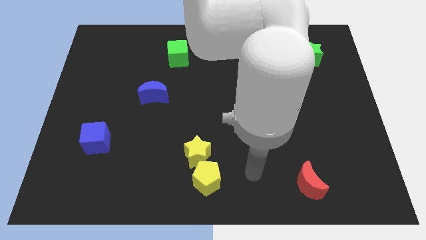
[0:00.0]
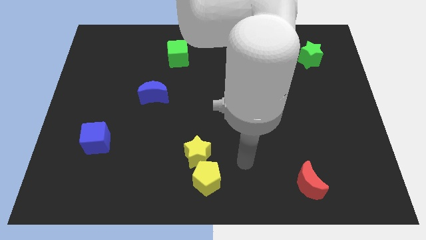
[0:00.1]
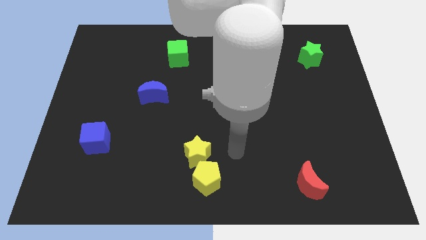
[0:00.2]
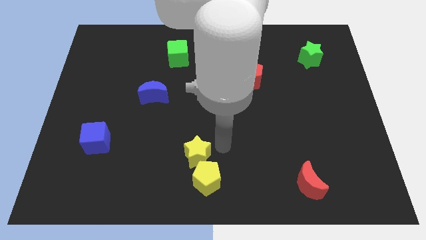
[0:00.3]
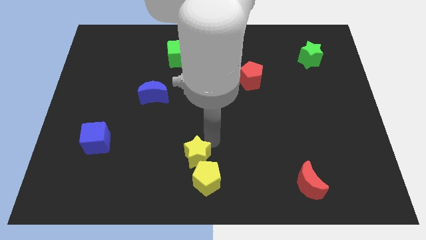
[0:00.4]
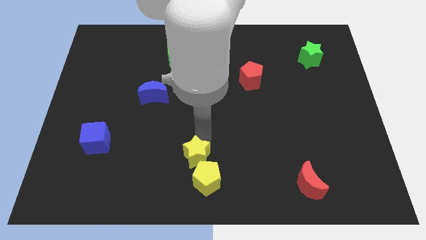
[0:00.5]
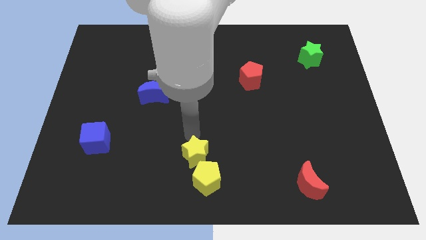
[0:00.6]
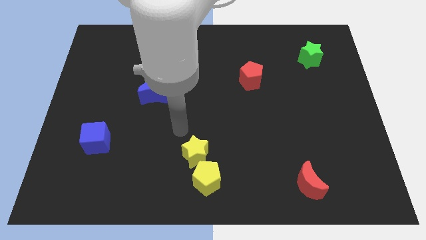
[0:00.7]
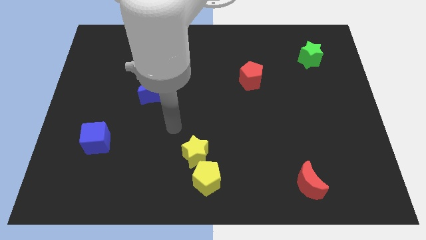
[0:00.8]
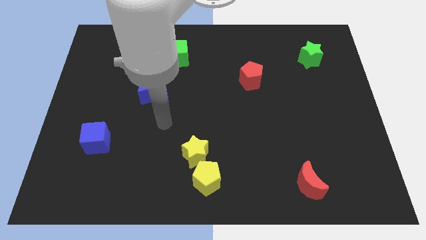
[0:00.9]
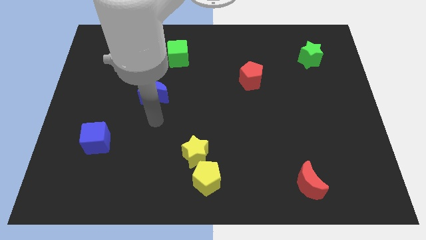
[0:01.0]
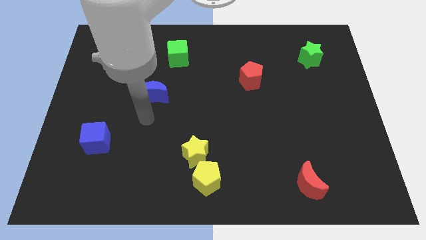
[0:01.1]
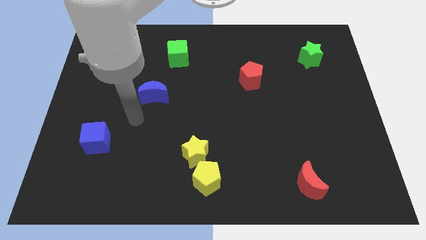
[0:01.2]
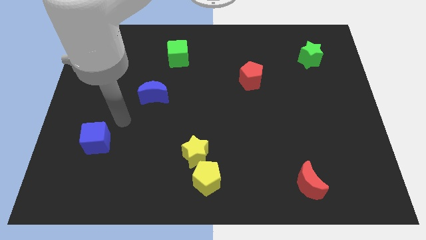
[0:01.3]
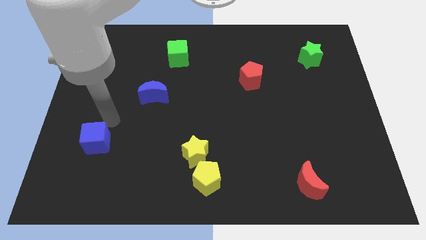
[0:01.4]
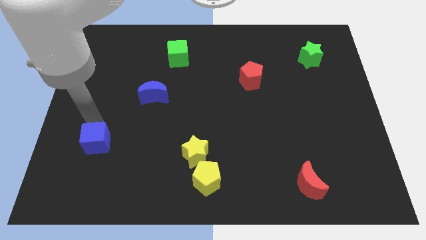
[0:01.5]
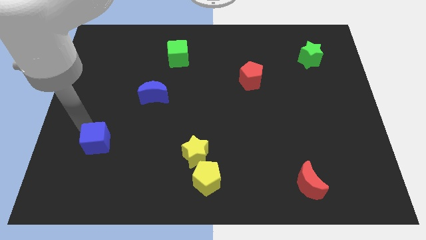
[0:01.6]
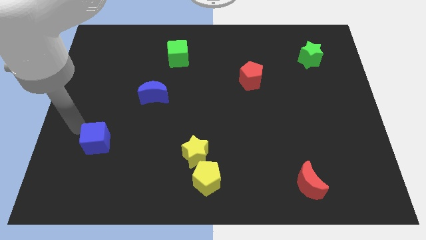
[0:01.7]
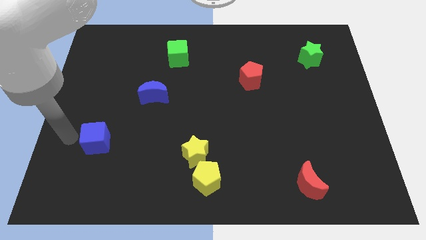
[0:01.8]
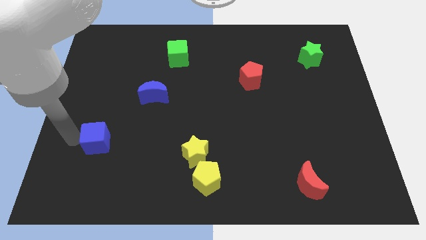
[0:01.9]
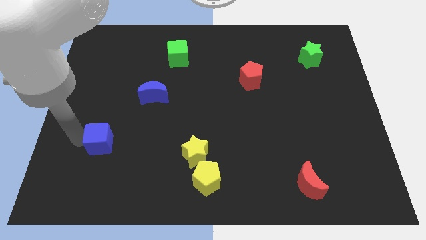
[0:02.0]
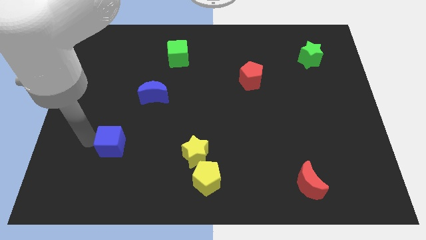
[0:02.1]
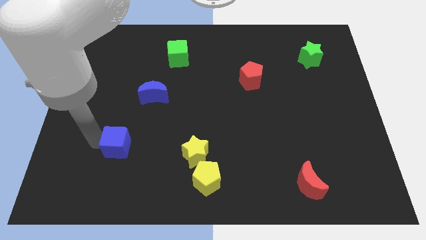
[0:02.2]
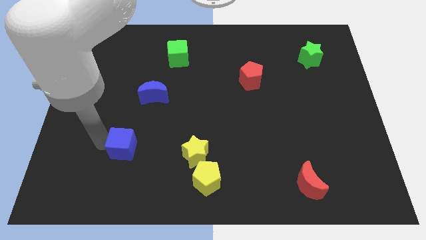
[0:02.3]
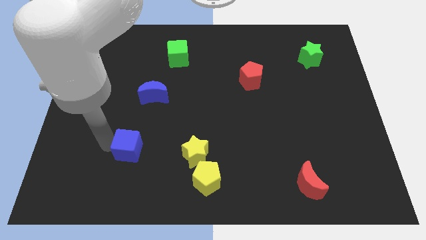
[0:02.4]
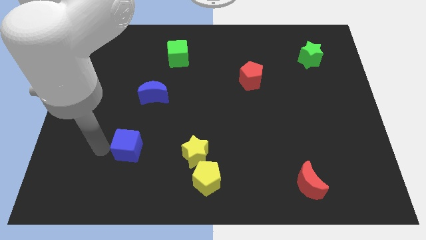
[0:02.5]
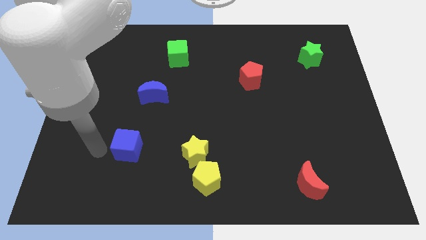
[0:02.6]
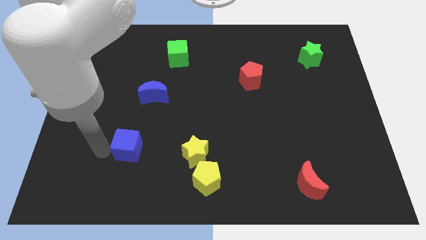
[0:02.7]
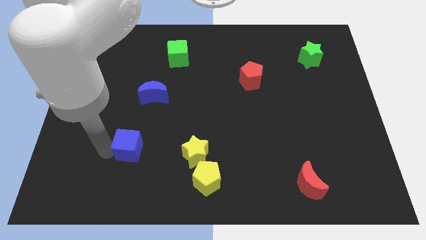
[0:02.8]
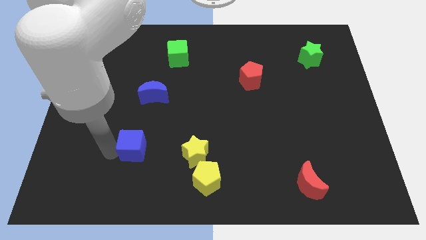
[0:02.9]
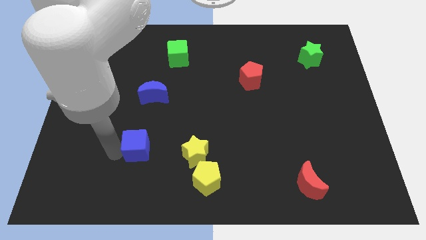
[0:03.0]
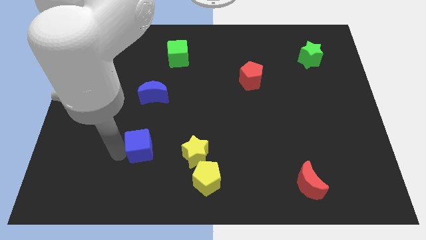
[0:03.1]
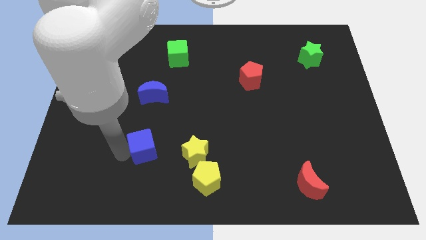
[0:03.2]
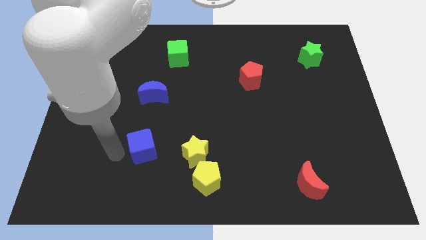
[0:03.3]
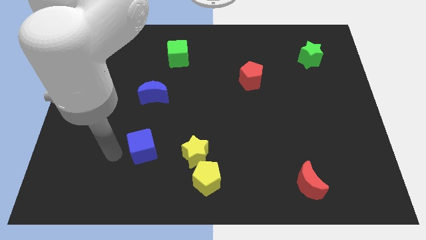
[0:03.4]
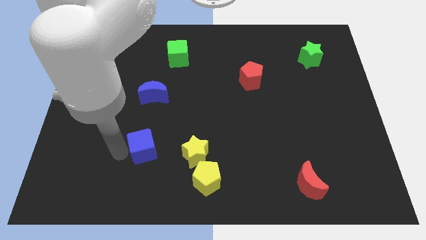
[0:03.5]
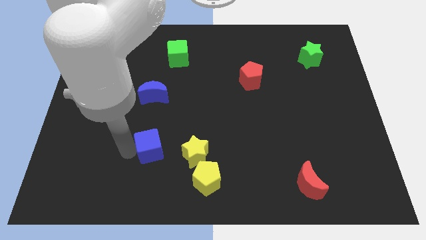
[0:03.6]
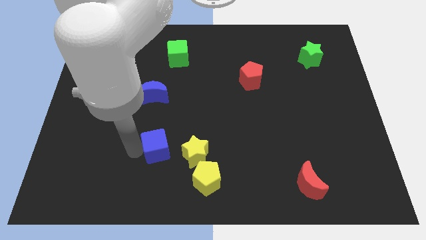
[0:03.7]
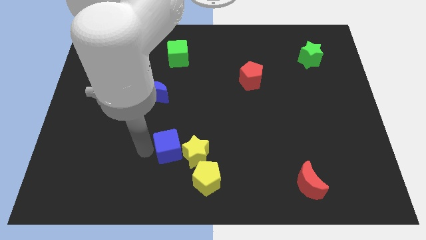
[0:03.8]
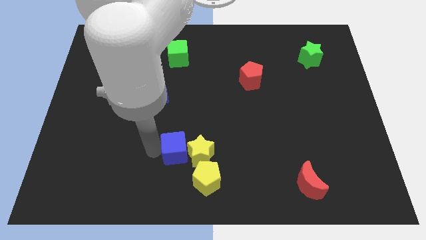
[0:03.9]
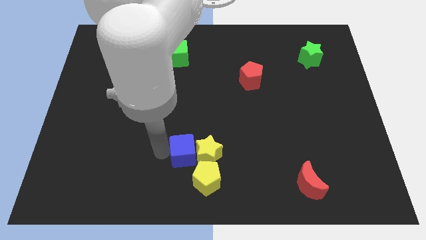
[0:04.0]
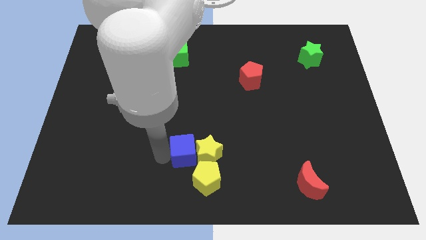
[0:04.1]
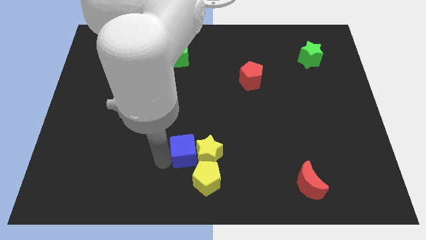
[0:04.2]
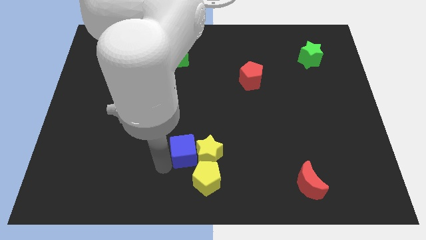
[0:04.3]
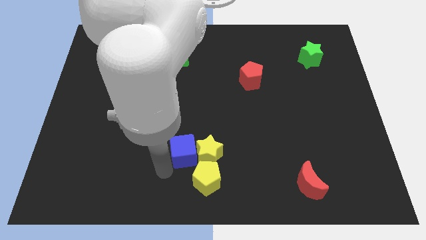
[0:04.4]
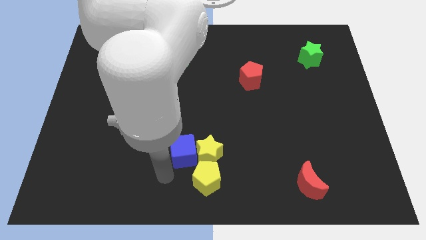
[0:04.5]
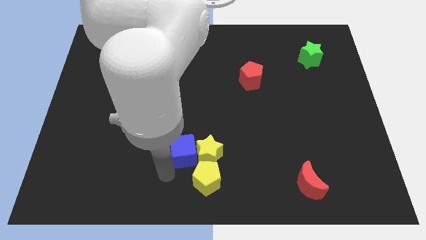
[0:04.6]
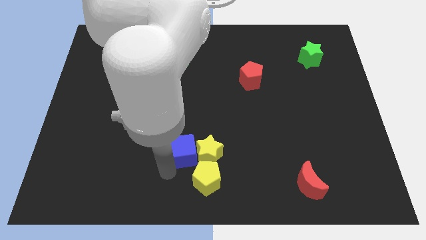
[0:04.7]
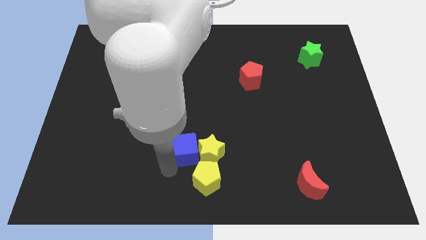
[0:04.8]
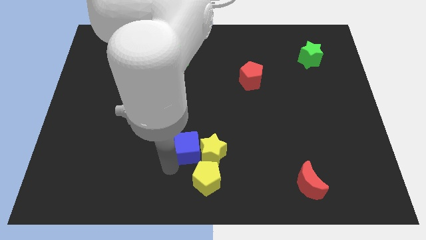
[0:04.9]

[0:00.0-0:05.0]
move the blue cube right

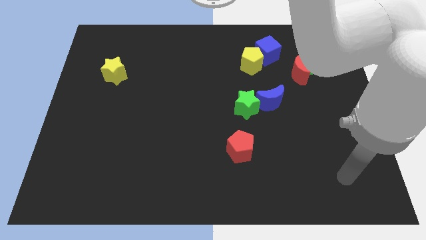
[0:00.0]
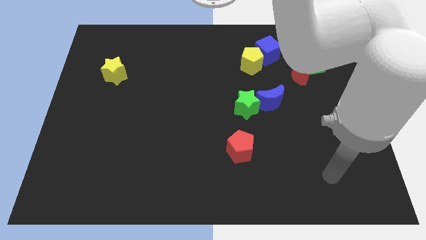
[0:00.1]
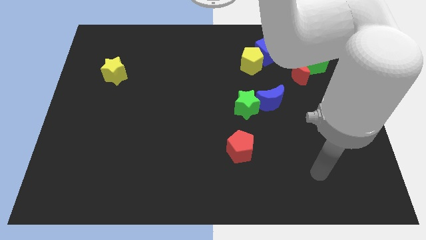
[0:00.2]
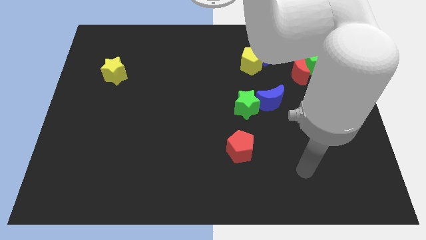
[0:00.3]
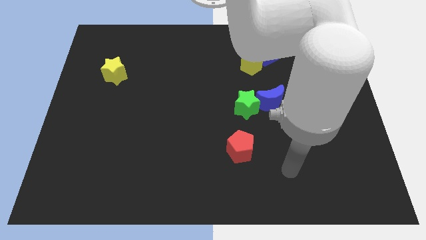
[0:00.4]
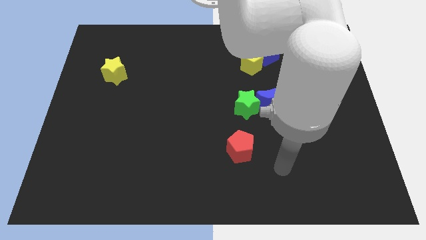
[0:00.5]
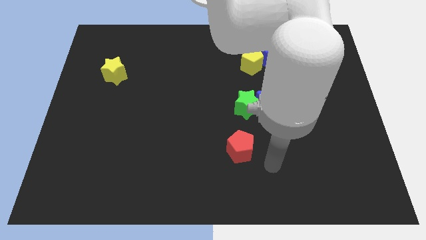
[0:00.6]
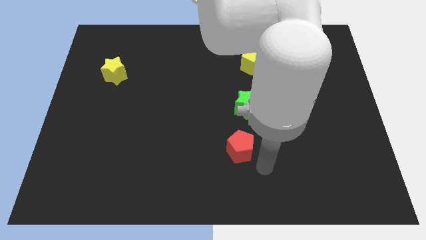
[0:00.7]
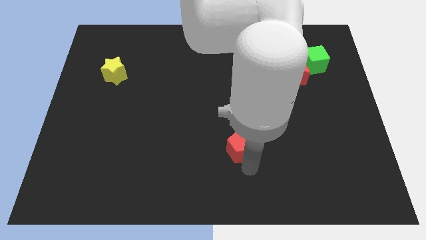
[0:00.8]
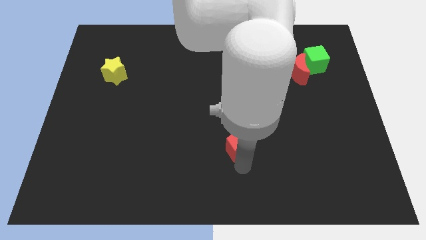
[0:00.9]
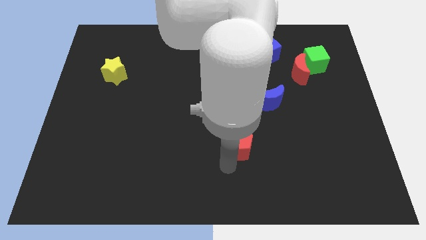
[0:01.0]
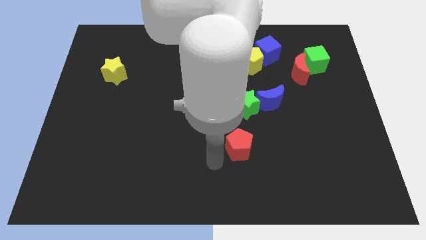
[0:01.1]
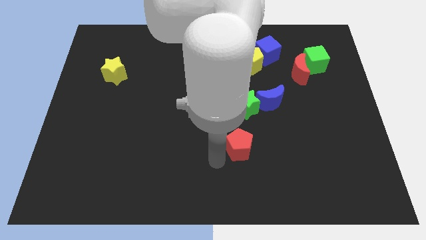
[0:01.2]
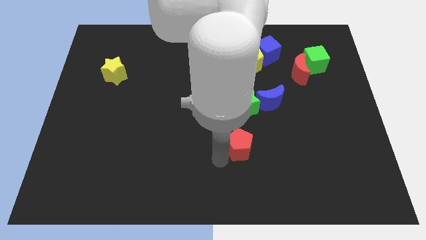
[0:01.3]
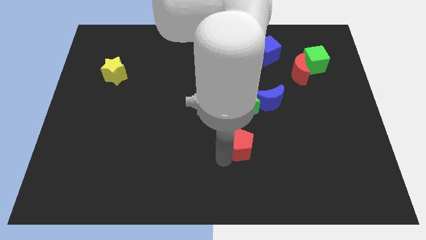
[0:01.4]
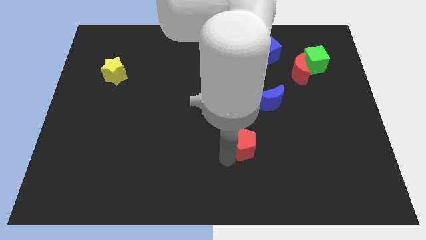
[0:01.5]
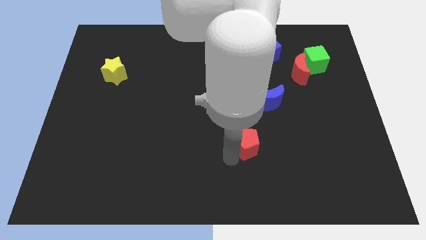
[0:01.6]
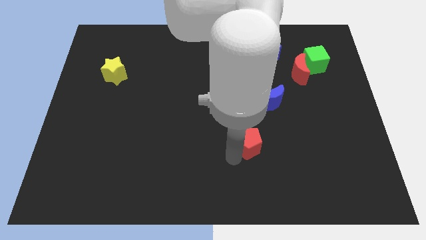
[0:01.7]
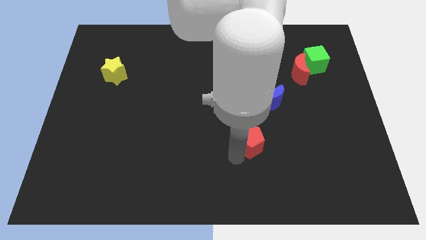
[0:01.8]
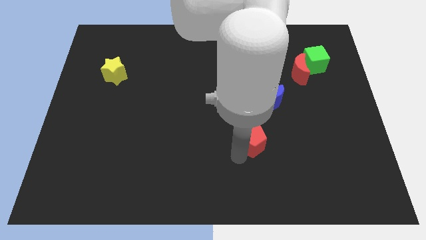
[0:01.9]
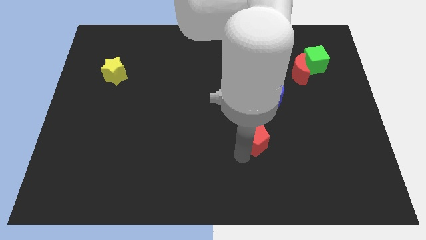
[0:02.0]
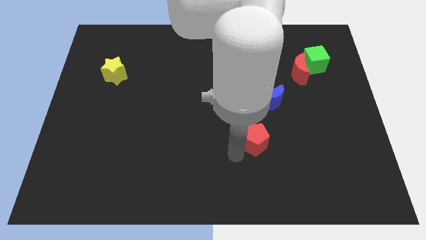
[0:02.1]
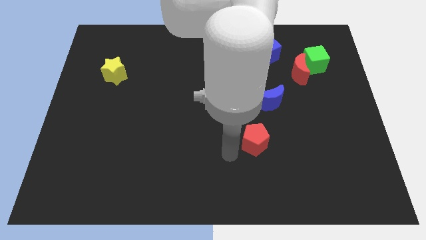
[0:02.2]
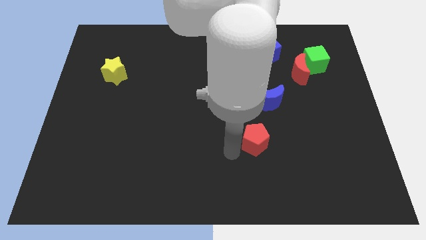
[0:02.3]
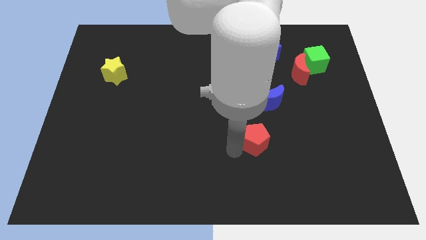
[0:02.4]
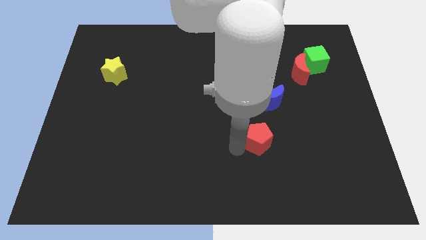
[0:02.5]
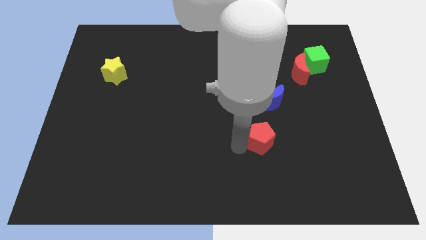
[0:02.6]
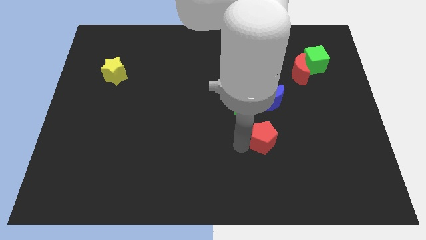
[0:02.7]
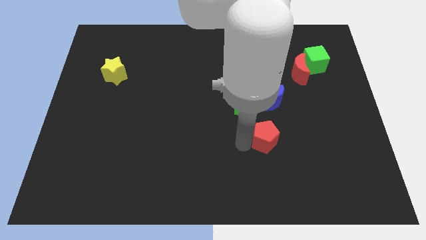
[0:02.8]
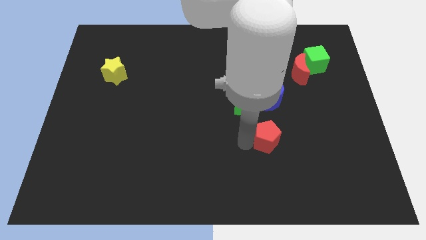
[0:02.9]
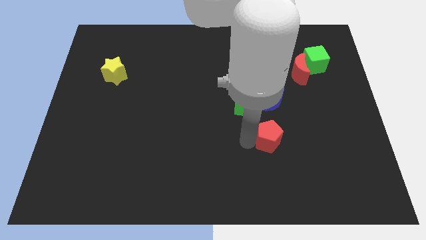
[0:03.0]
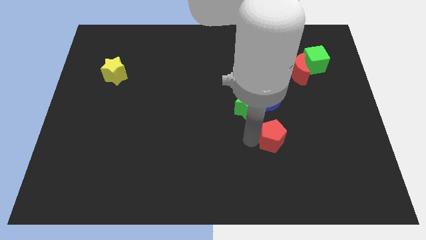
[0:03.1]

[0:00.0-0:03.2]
slightly move the red pentagon upwards and to the right
